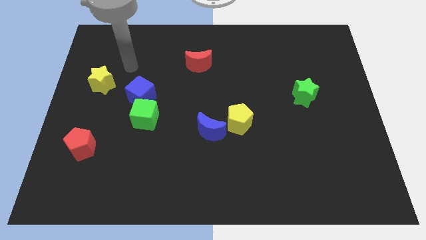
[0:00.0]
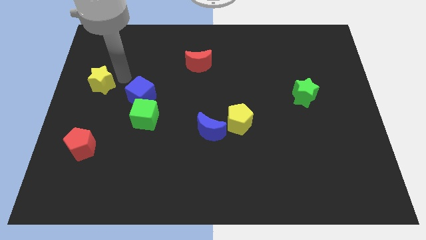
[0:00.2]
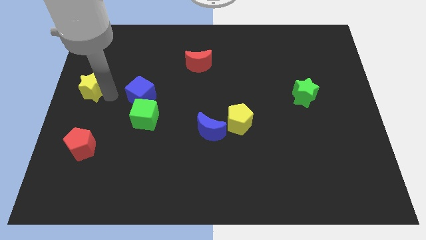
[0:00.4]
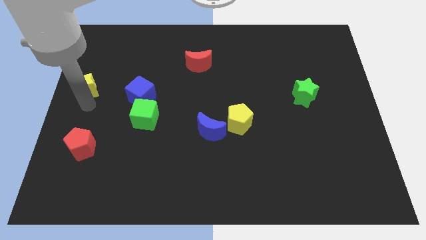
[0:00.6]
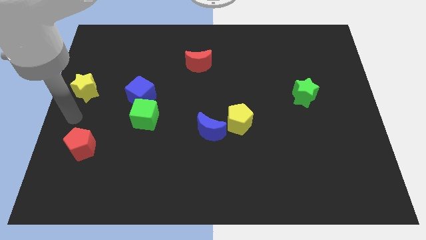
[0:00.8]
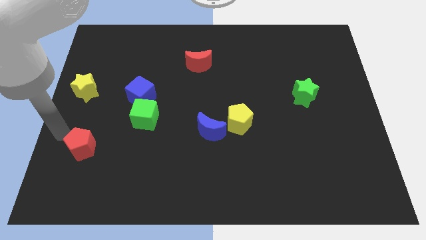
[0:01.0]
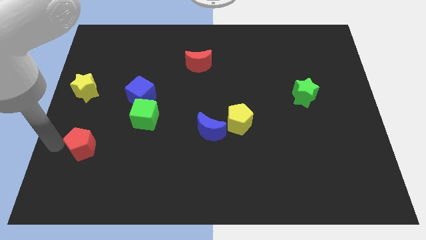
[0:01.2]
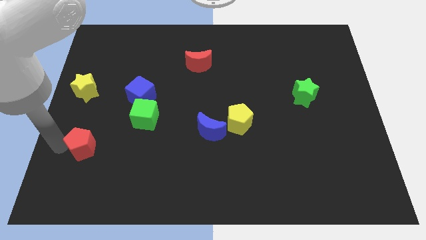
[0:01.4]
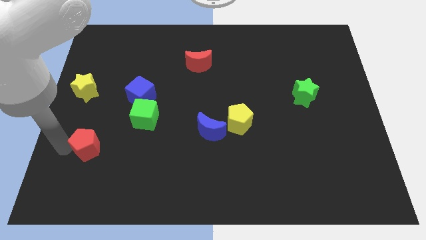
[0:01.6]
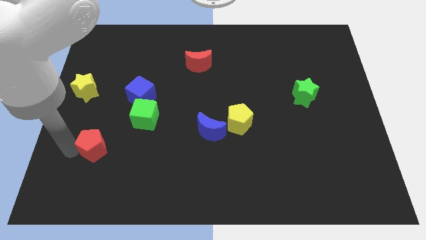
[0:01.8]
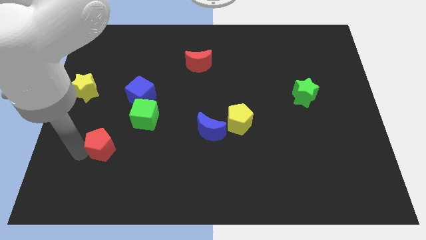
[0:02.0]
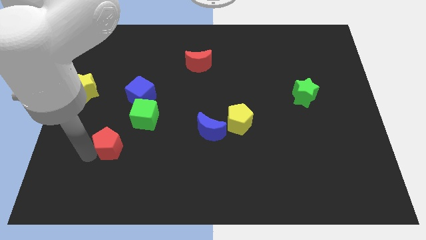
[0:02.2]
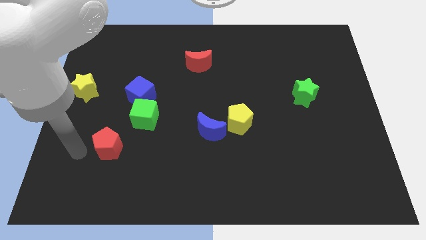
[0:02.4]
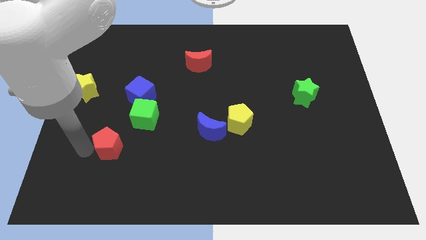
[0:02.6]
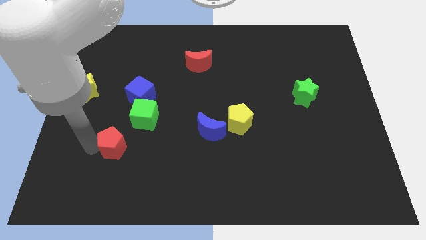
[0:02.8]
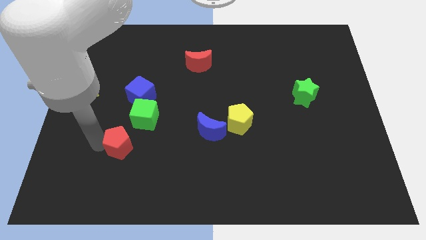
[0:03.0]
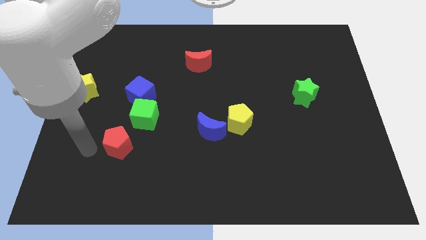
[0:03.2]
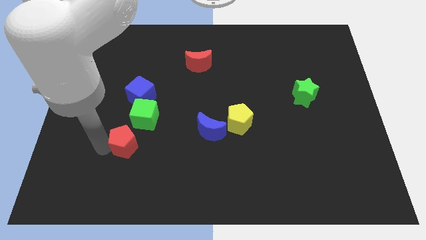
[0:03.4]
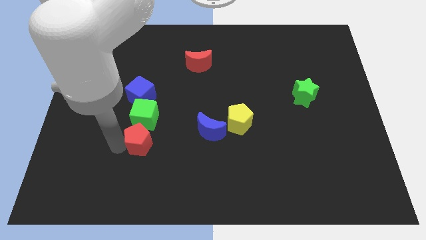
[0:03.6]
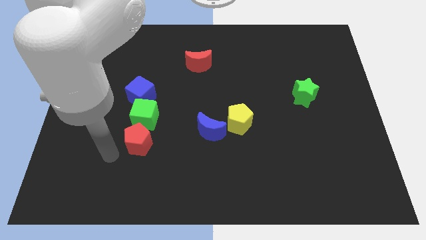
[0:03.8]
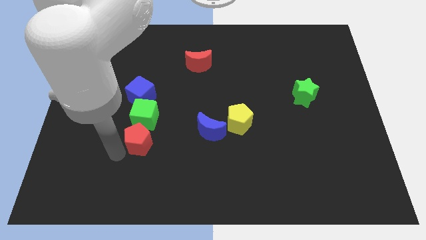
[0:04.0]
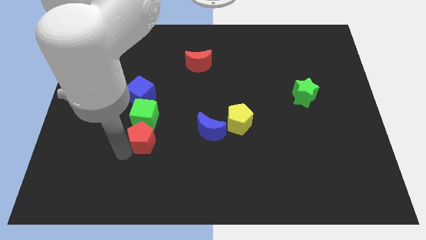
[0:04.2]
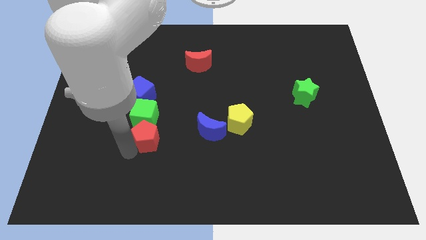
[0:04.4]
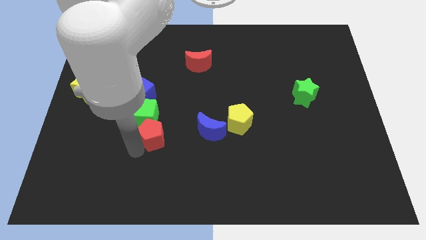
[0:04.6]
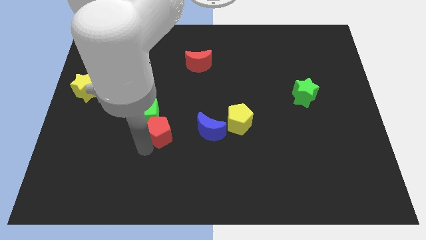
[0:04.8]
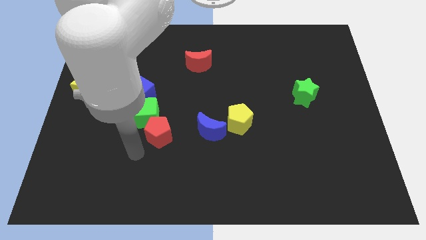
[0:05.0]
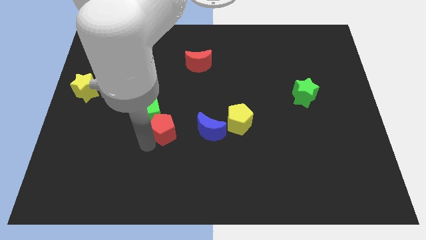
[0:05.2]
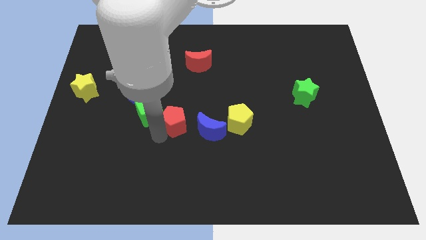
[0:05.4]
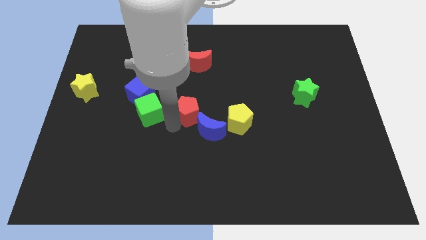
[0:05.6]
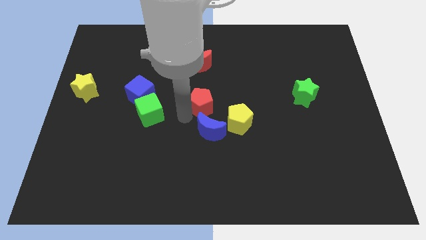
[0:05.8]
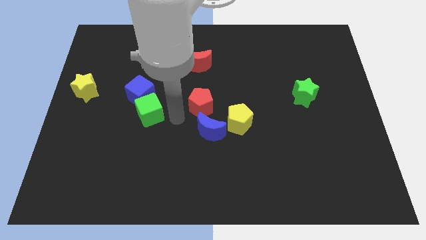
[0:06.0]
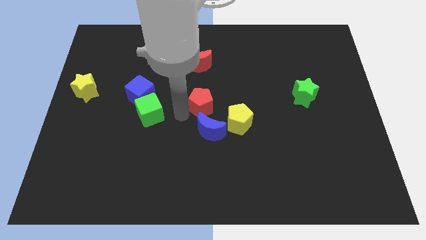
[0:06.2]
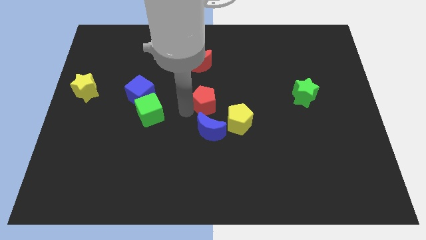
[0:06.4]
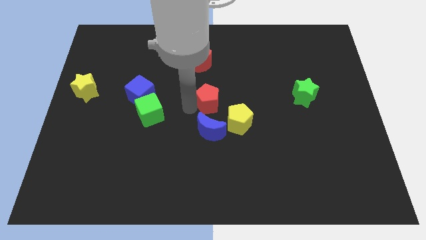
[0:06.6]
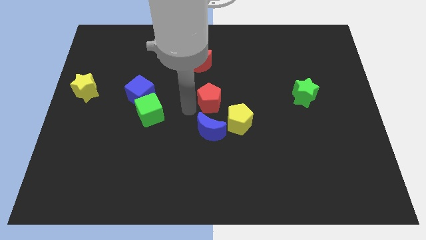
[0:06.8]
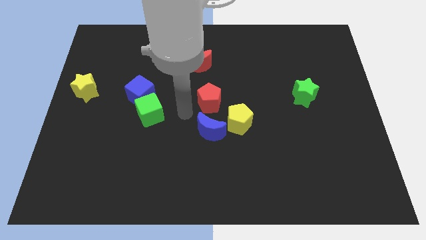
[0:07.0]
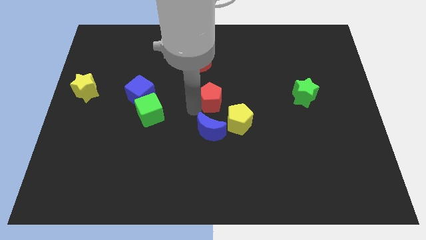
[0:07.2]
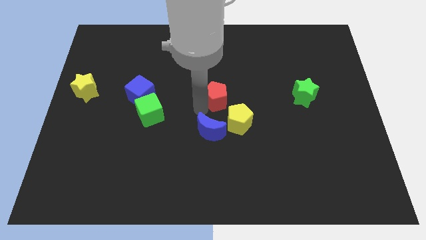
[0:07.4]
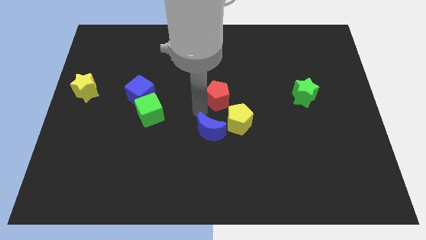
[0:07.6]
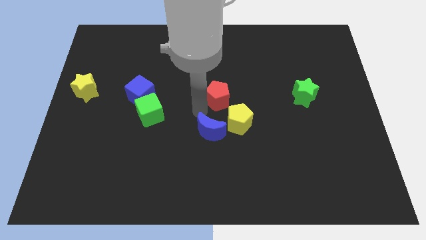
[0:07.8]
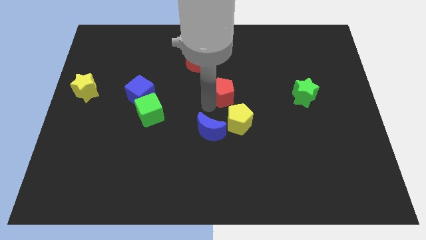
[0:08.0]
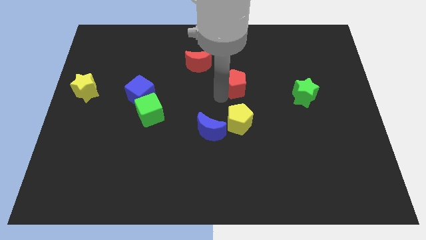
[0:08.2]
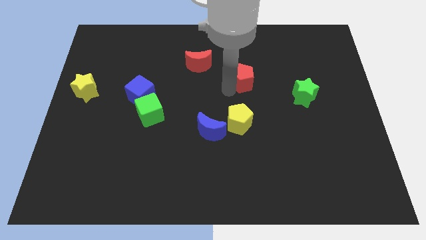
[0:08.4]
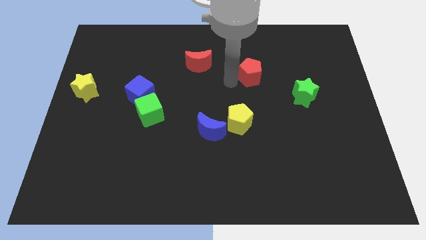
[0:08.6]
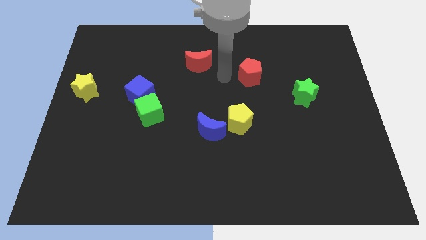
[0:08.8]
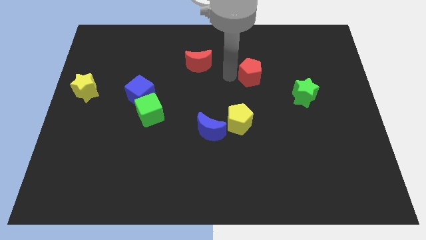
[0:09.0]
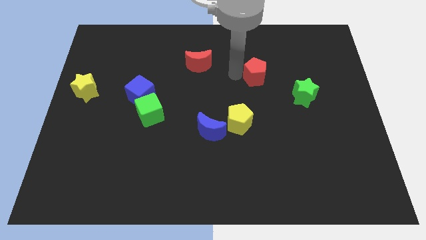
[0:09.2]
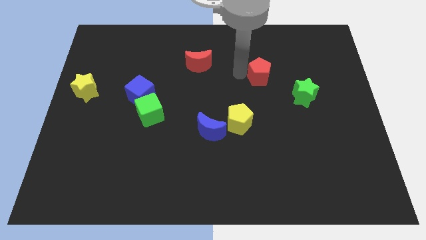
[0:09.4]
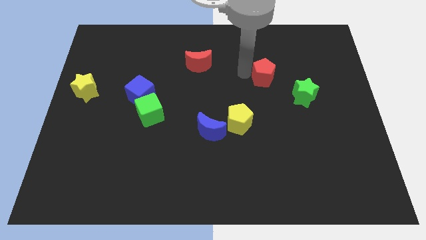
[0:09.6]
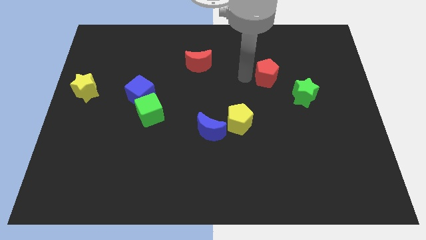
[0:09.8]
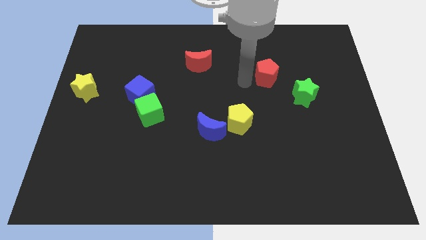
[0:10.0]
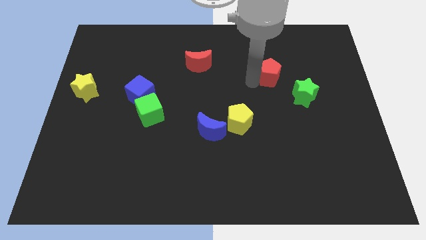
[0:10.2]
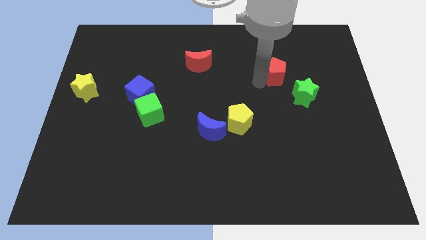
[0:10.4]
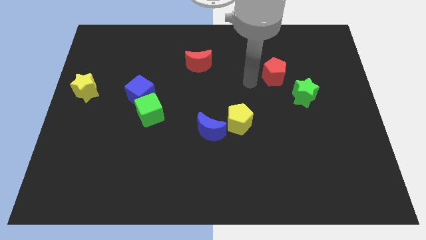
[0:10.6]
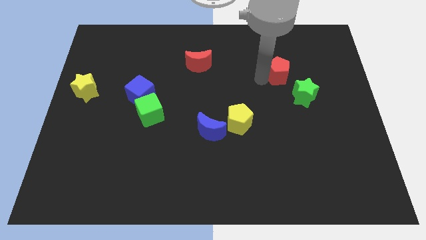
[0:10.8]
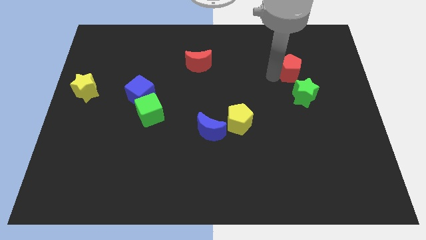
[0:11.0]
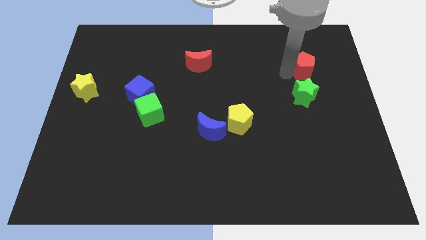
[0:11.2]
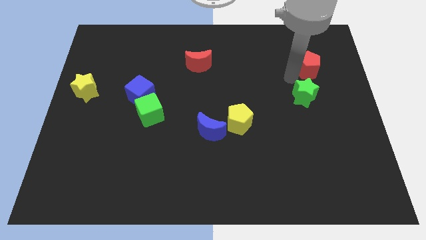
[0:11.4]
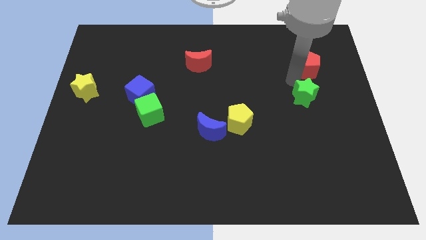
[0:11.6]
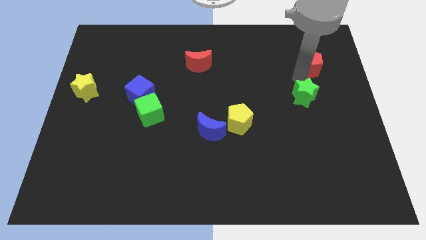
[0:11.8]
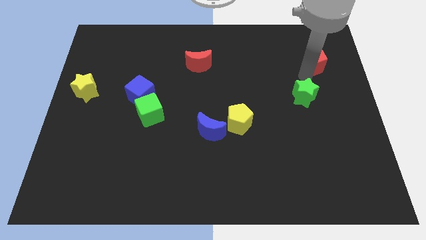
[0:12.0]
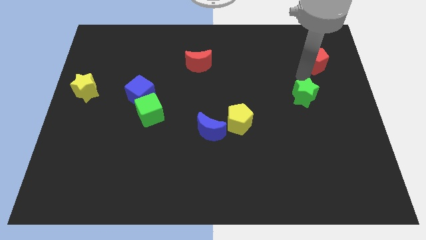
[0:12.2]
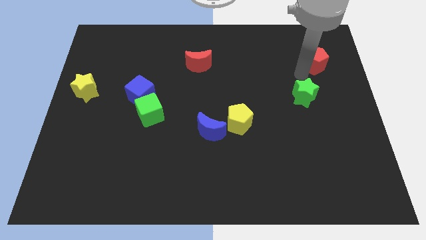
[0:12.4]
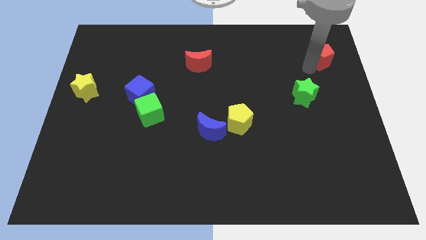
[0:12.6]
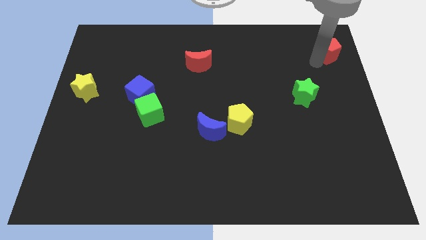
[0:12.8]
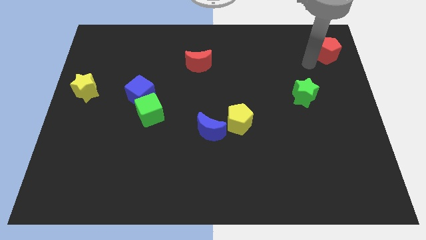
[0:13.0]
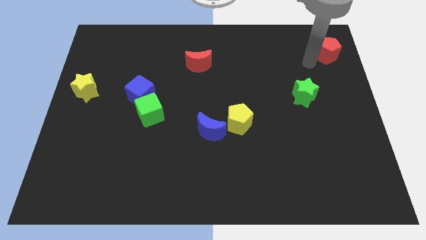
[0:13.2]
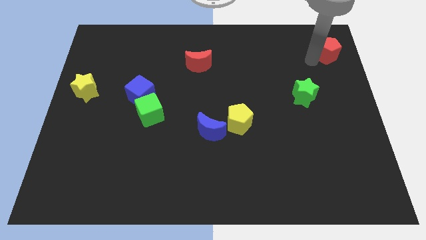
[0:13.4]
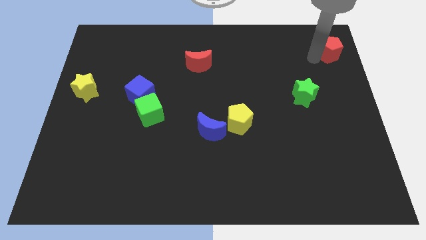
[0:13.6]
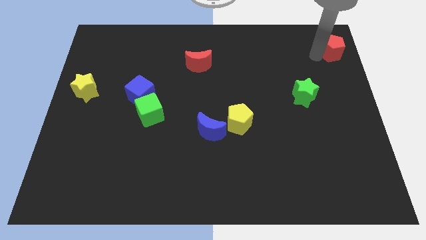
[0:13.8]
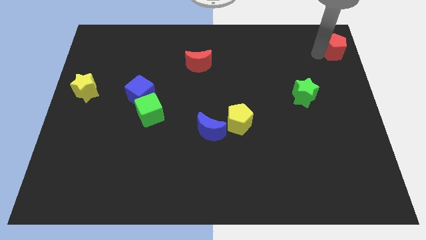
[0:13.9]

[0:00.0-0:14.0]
push the red pentagon to the upper right corner
